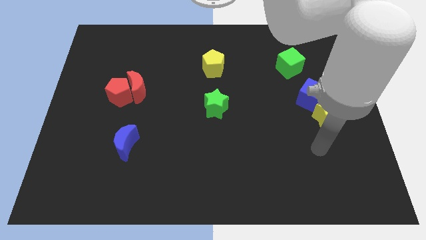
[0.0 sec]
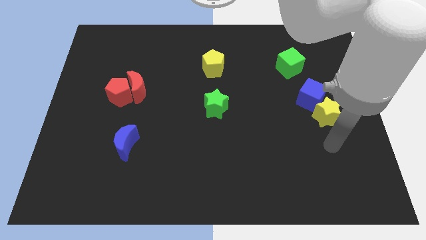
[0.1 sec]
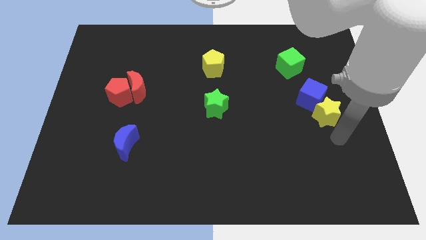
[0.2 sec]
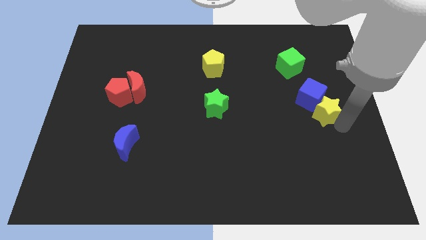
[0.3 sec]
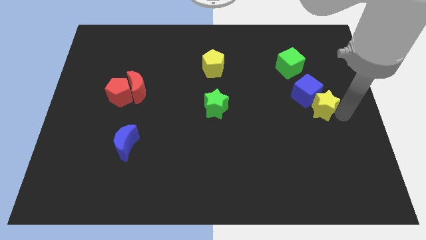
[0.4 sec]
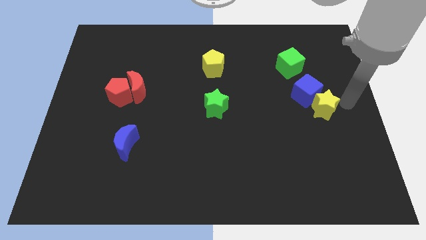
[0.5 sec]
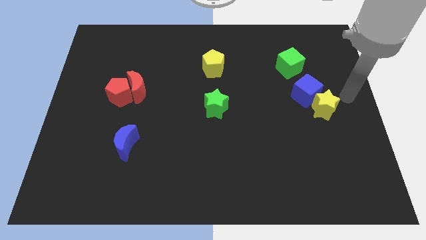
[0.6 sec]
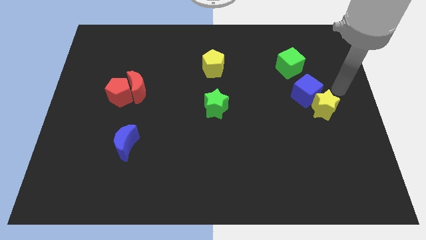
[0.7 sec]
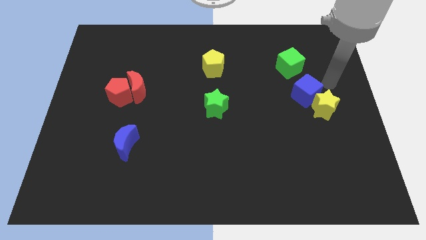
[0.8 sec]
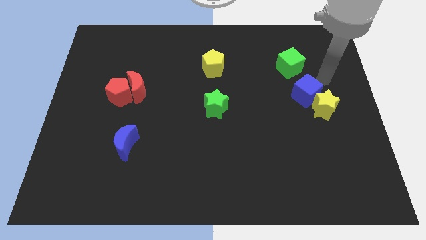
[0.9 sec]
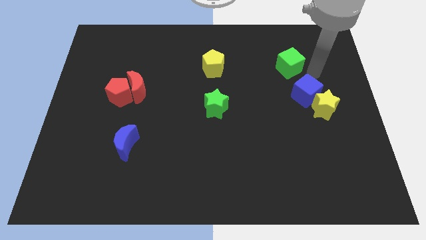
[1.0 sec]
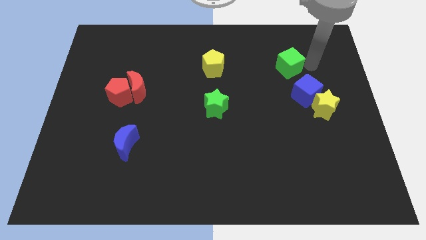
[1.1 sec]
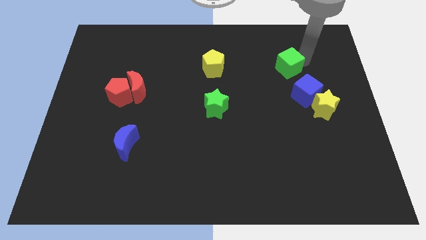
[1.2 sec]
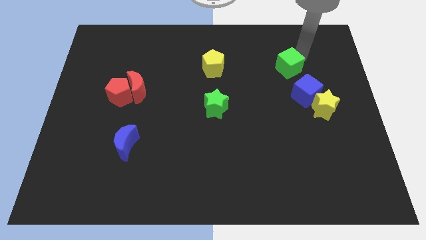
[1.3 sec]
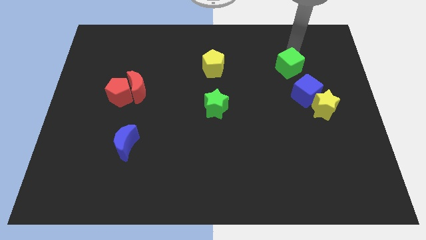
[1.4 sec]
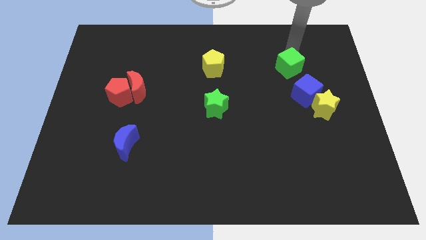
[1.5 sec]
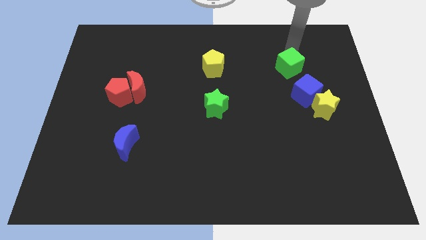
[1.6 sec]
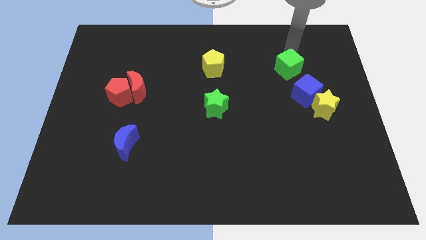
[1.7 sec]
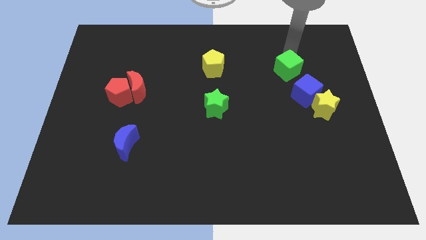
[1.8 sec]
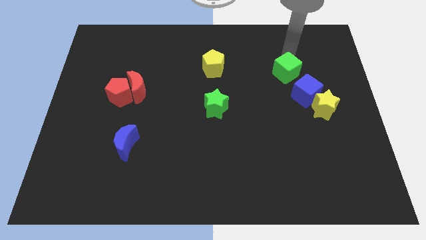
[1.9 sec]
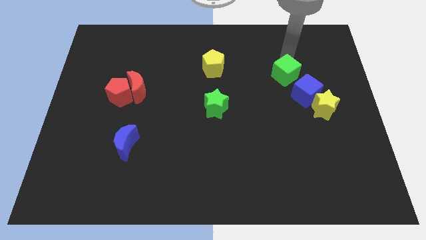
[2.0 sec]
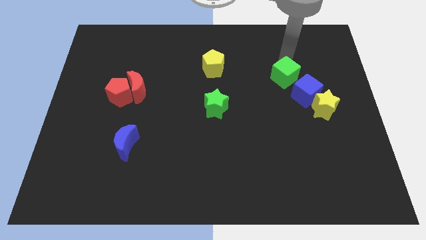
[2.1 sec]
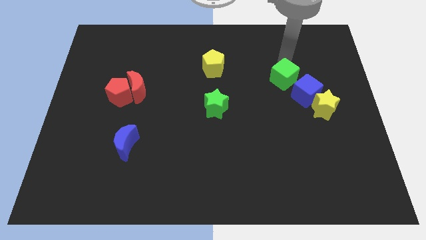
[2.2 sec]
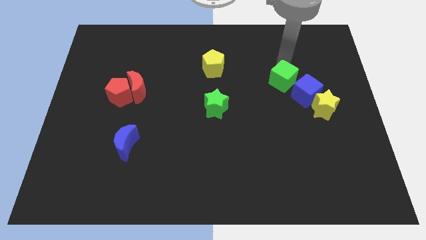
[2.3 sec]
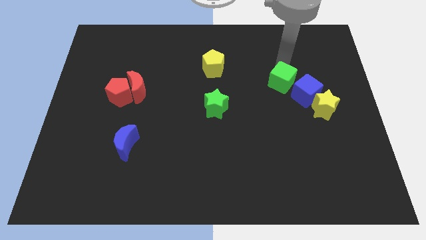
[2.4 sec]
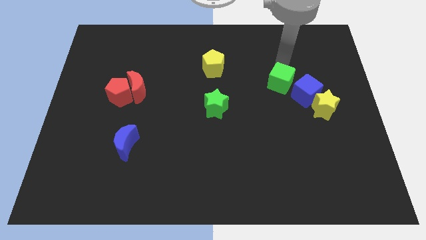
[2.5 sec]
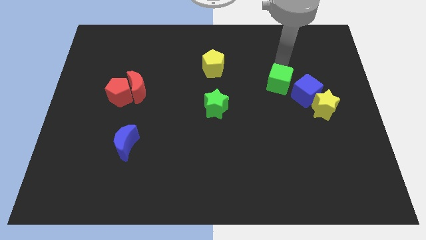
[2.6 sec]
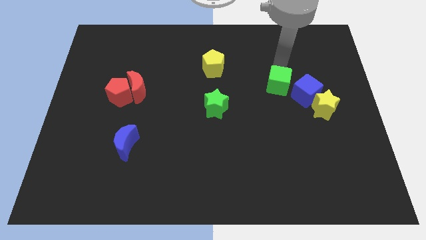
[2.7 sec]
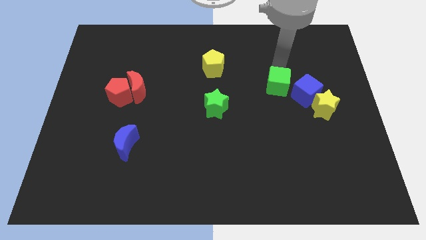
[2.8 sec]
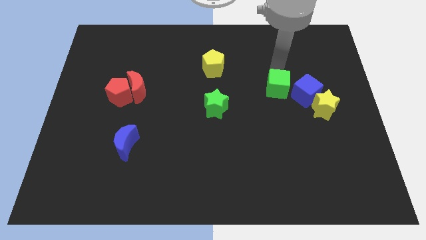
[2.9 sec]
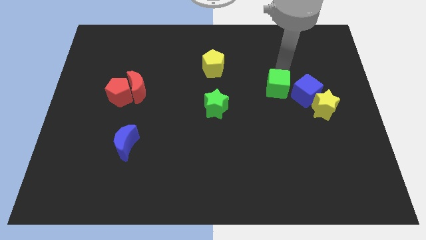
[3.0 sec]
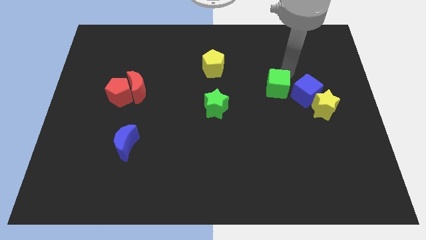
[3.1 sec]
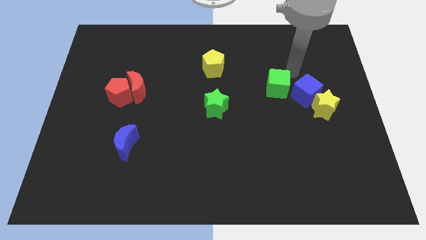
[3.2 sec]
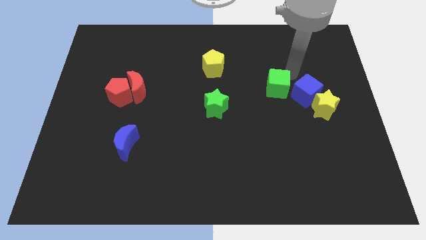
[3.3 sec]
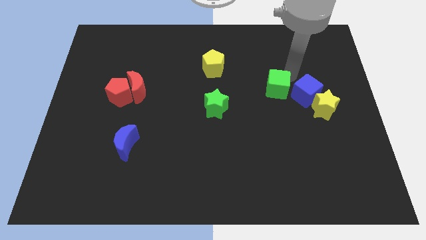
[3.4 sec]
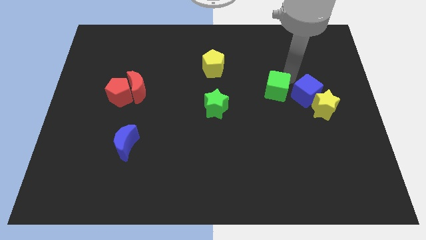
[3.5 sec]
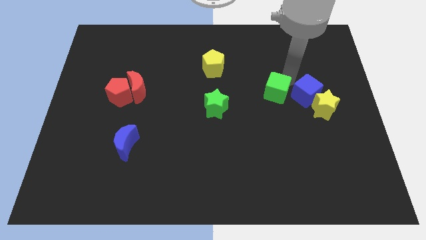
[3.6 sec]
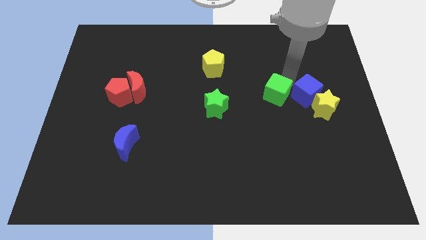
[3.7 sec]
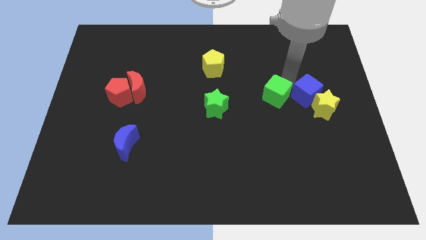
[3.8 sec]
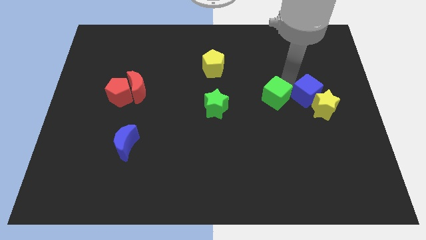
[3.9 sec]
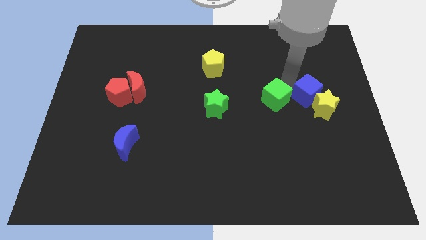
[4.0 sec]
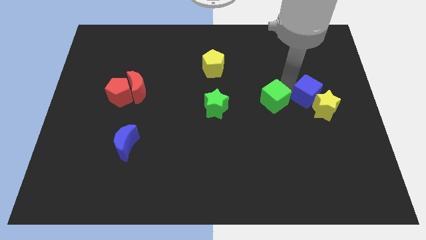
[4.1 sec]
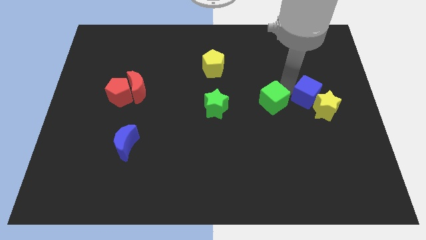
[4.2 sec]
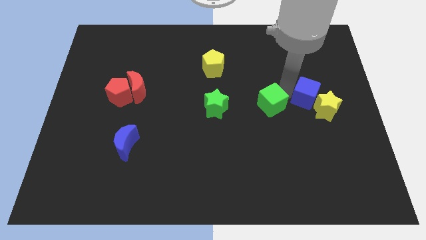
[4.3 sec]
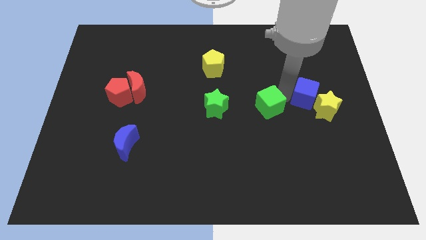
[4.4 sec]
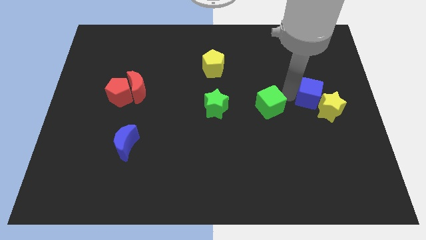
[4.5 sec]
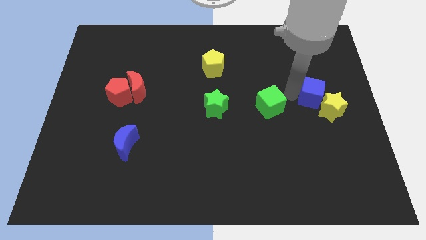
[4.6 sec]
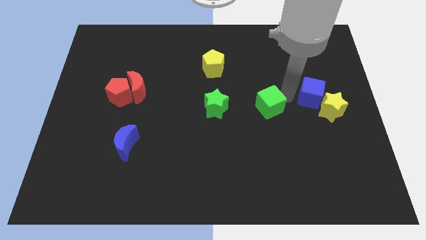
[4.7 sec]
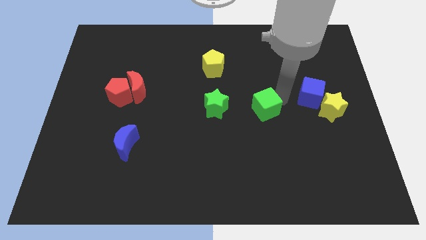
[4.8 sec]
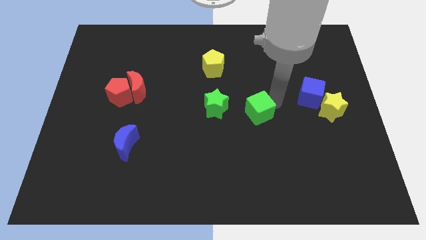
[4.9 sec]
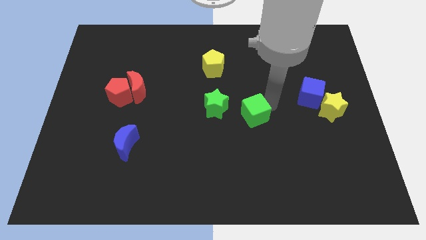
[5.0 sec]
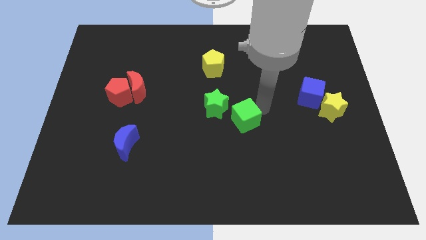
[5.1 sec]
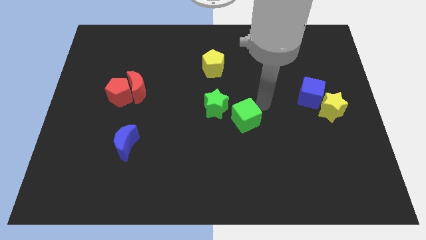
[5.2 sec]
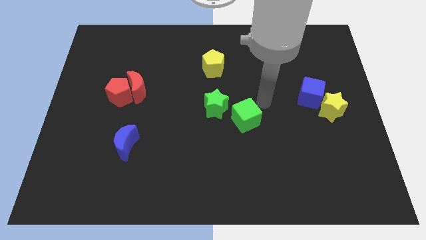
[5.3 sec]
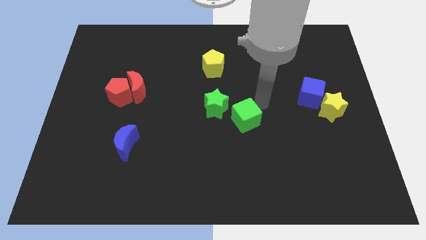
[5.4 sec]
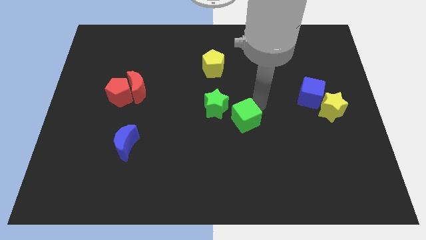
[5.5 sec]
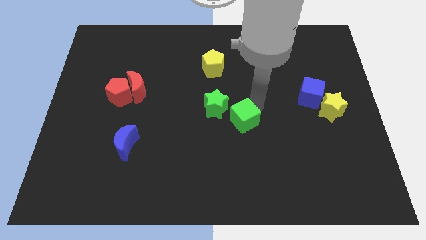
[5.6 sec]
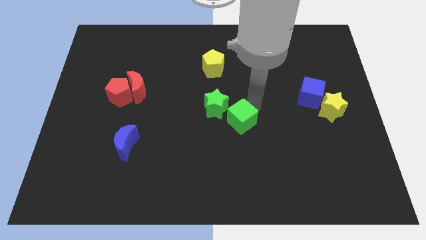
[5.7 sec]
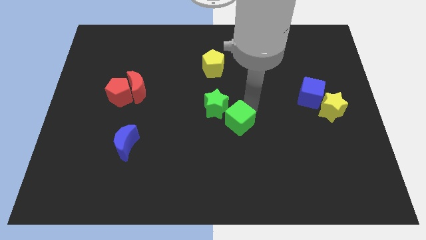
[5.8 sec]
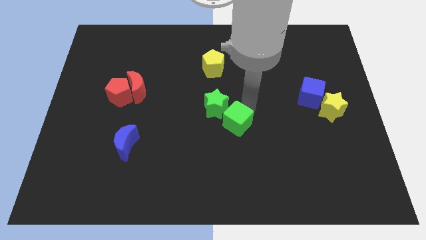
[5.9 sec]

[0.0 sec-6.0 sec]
put the green cube to the bottom side of the green star

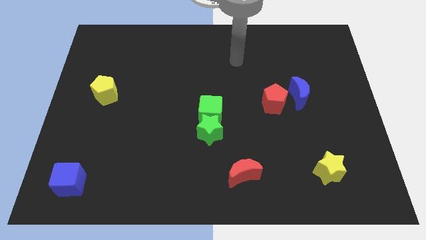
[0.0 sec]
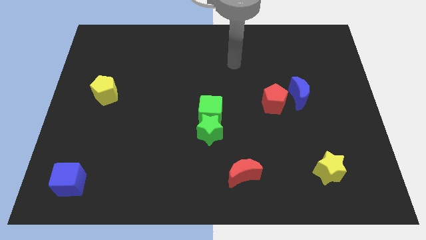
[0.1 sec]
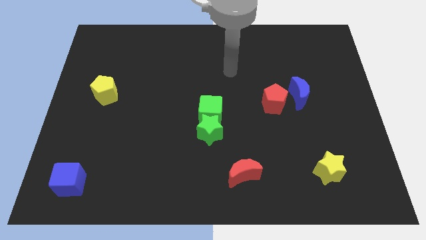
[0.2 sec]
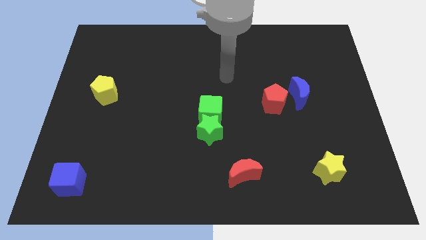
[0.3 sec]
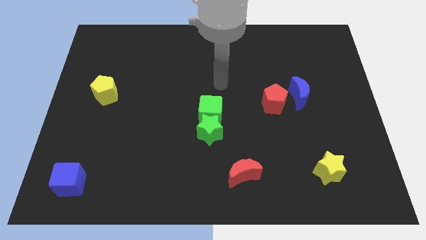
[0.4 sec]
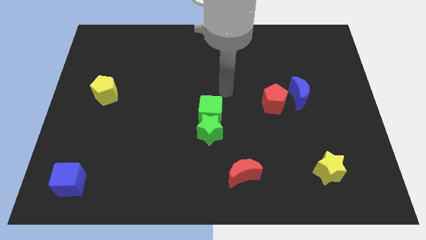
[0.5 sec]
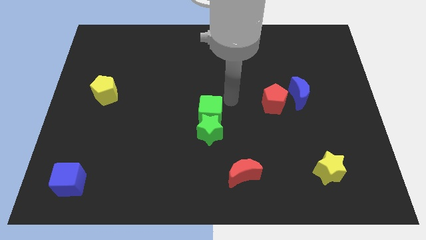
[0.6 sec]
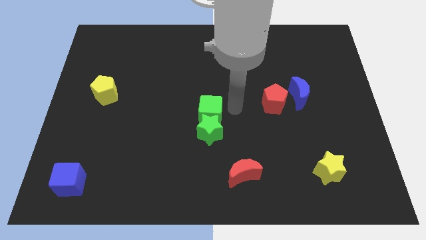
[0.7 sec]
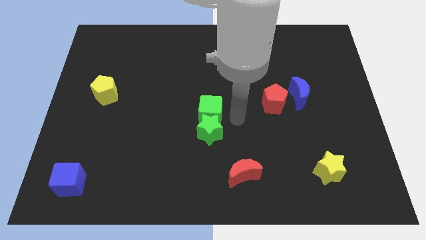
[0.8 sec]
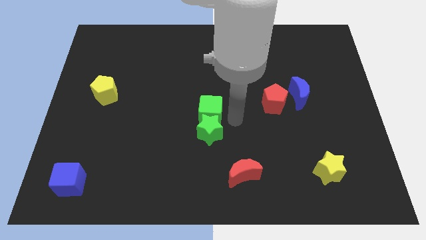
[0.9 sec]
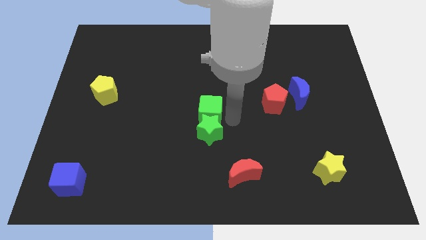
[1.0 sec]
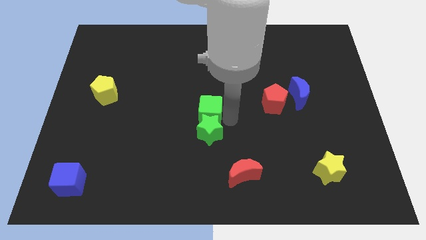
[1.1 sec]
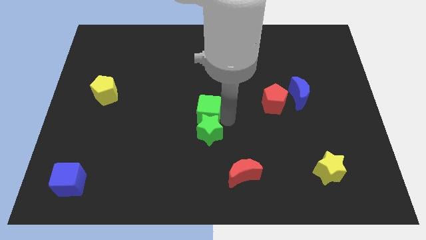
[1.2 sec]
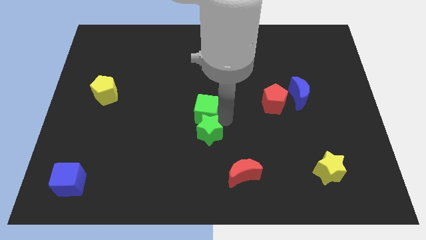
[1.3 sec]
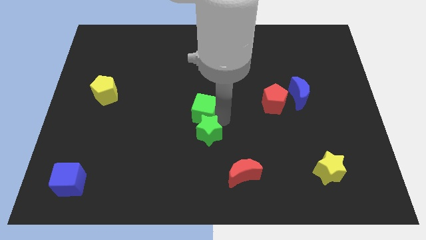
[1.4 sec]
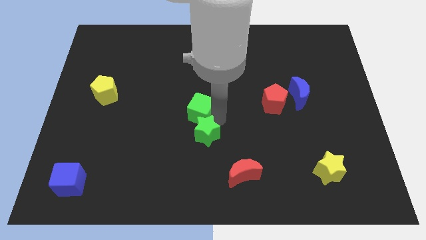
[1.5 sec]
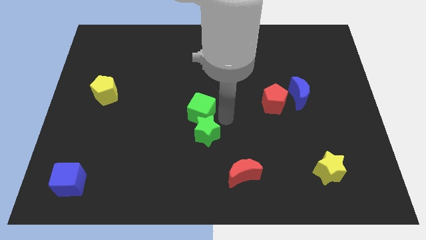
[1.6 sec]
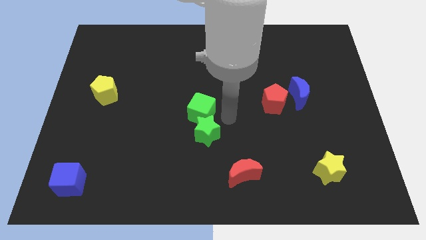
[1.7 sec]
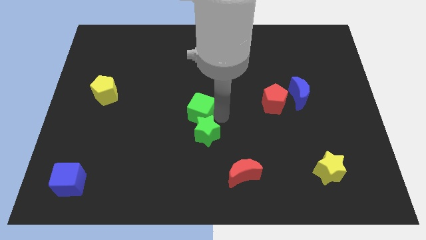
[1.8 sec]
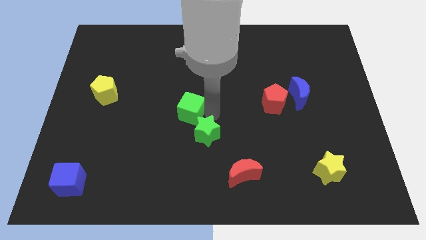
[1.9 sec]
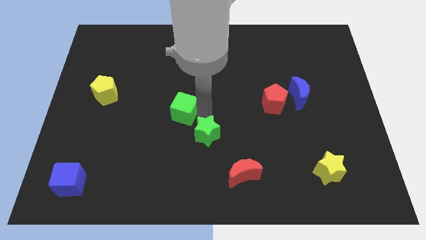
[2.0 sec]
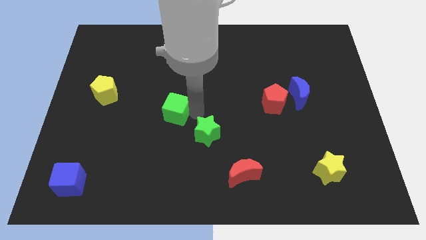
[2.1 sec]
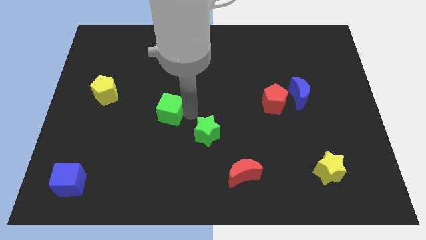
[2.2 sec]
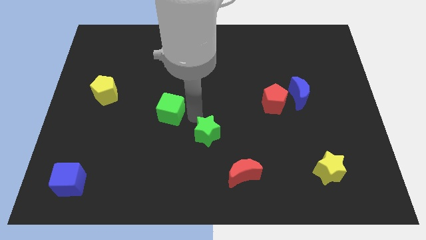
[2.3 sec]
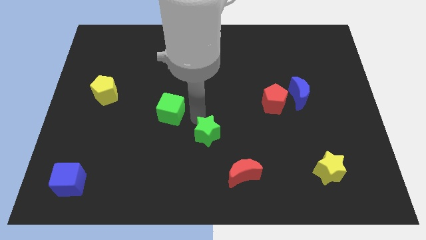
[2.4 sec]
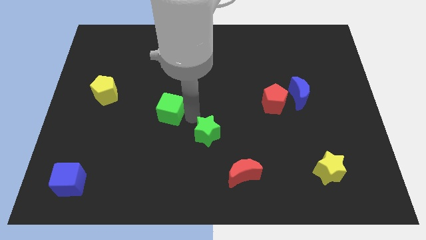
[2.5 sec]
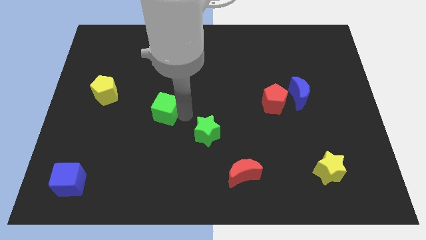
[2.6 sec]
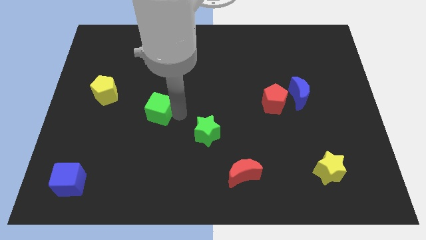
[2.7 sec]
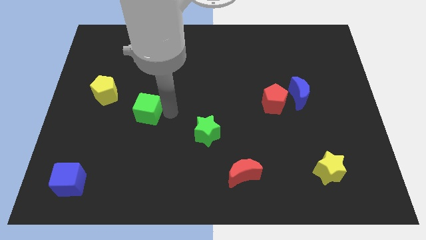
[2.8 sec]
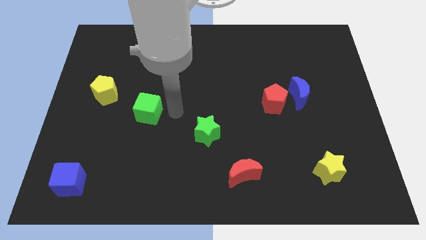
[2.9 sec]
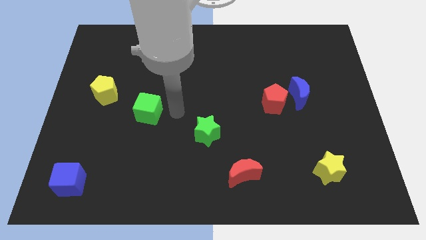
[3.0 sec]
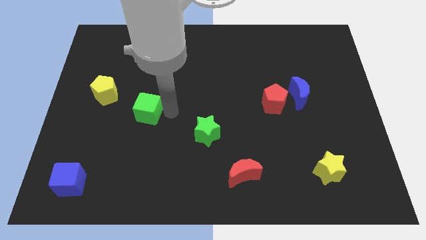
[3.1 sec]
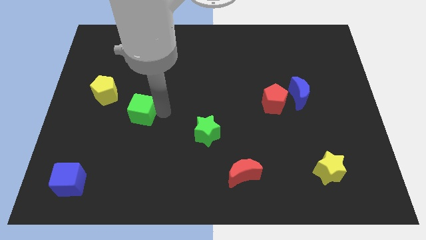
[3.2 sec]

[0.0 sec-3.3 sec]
push the green cube to the bottom right side of the yellow pentagon
